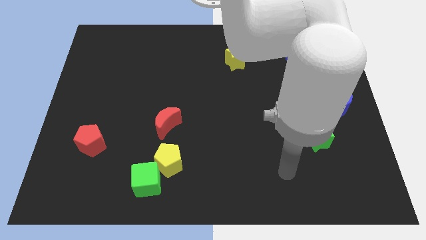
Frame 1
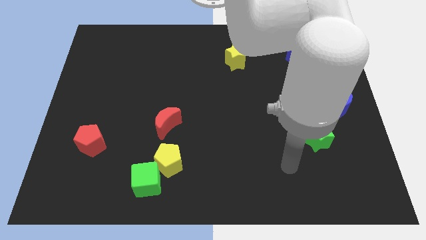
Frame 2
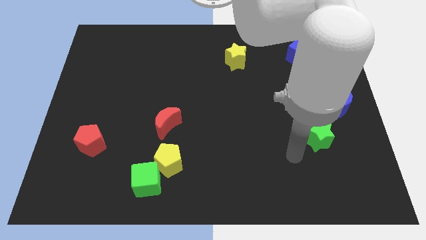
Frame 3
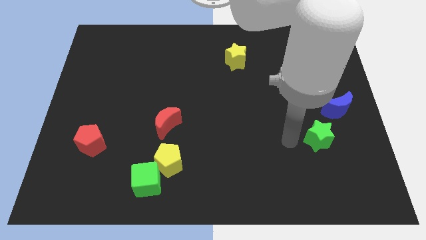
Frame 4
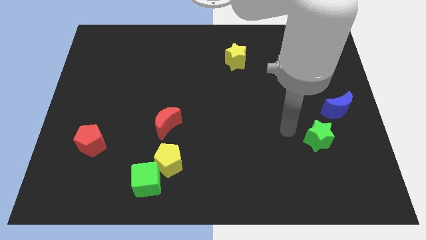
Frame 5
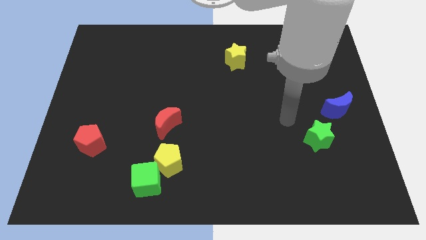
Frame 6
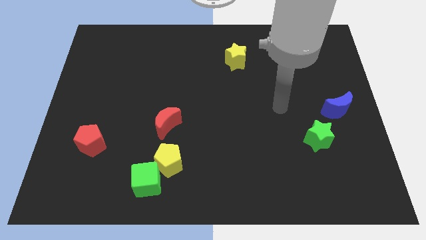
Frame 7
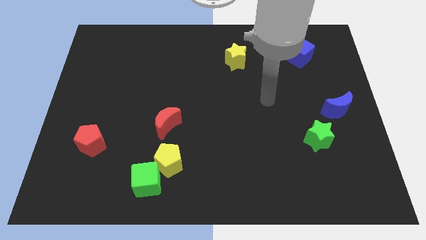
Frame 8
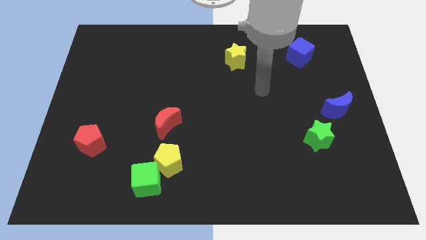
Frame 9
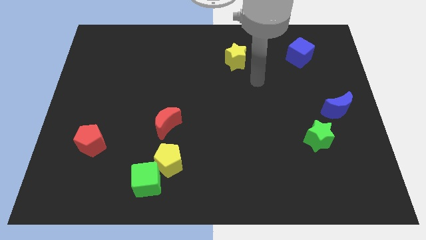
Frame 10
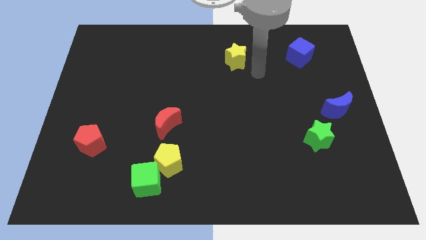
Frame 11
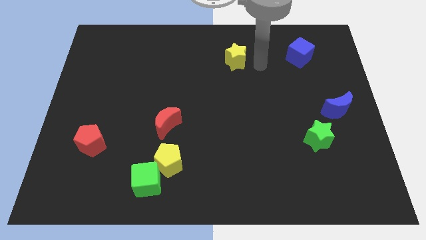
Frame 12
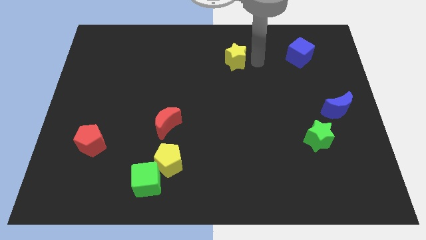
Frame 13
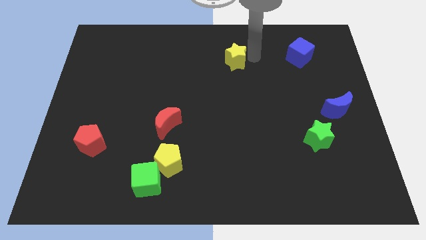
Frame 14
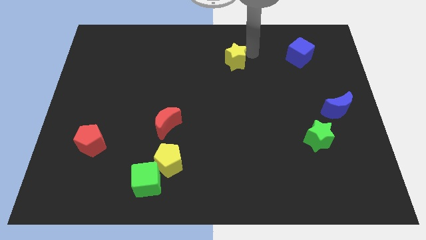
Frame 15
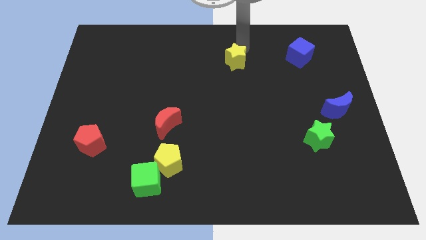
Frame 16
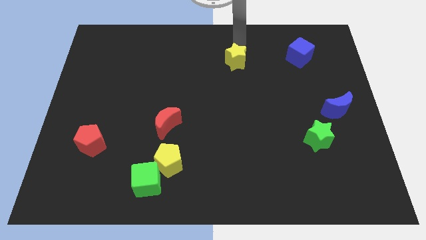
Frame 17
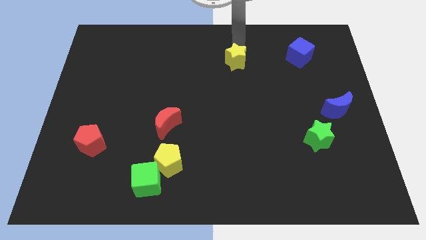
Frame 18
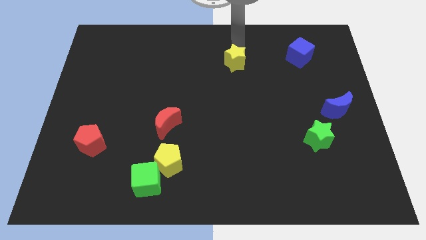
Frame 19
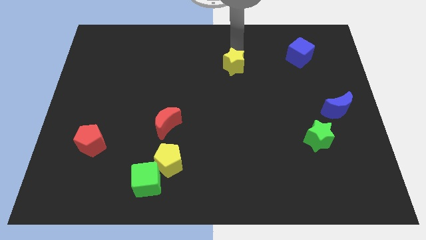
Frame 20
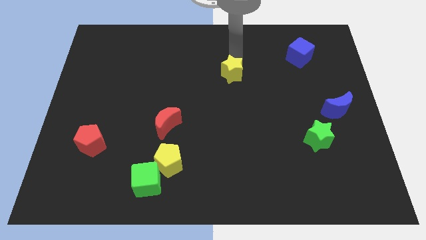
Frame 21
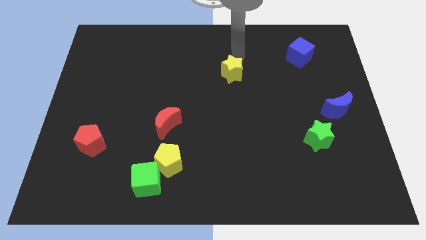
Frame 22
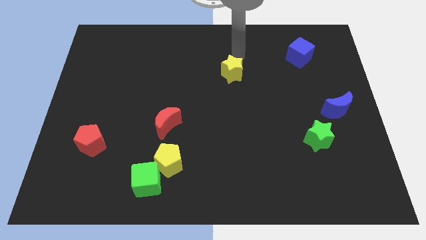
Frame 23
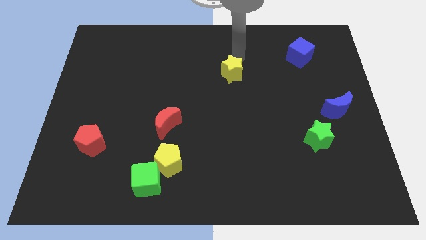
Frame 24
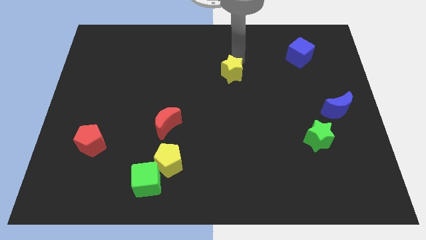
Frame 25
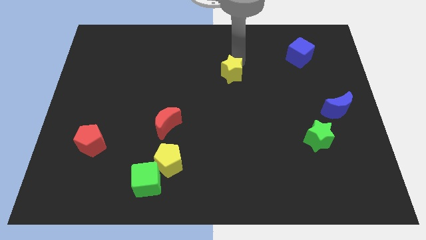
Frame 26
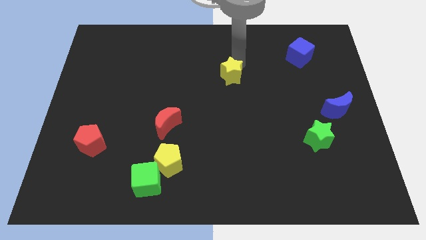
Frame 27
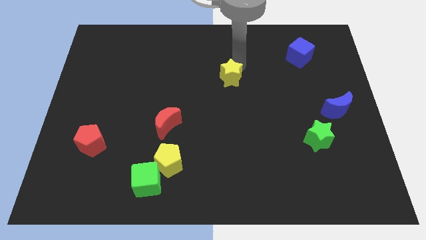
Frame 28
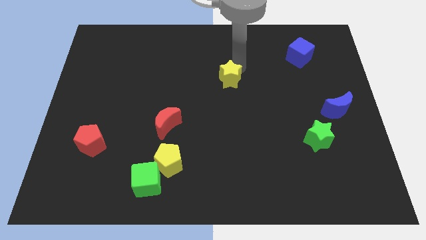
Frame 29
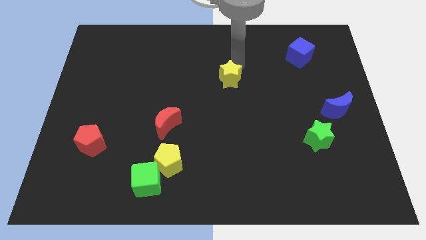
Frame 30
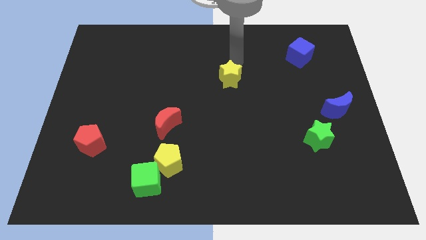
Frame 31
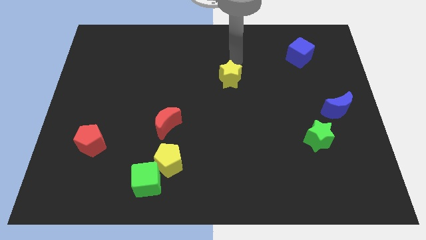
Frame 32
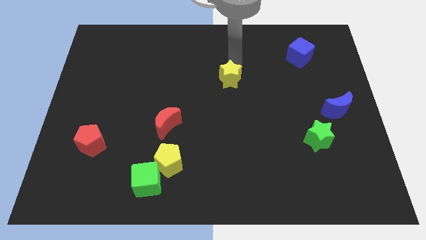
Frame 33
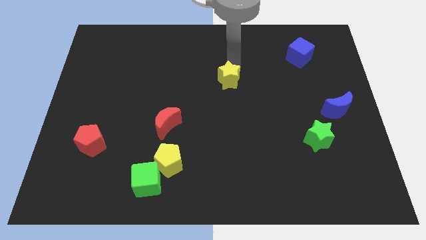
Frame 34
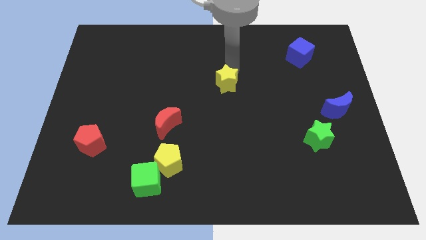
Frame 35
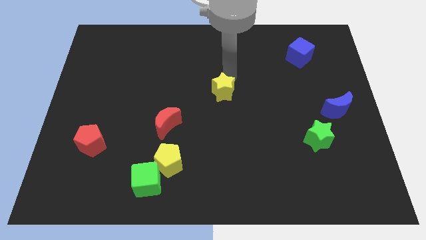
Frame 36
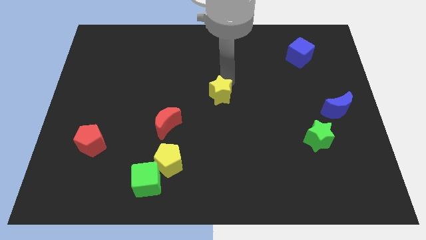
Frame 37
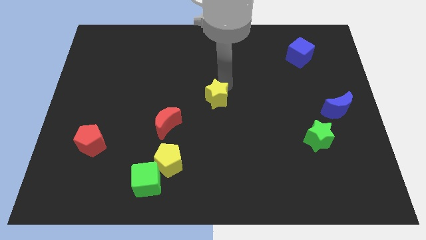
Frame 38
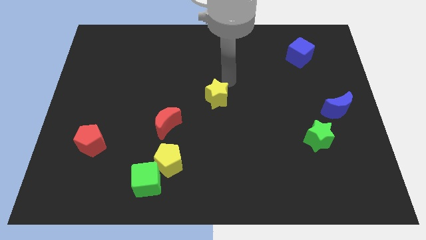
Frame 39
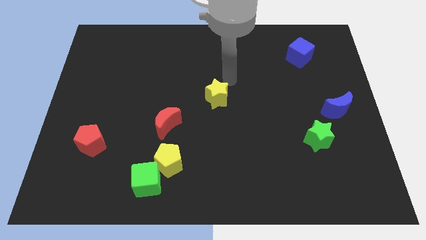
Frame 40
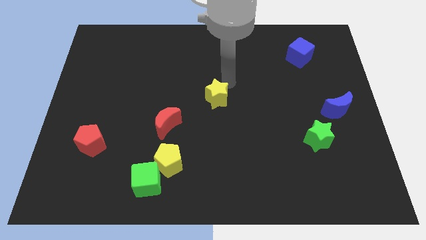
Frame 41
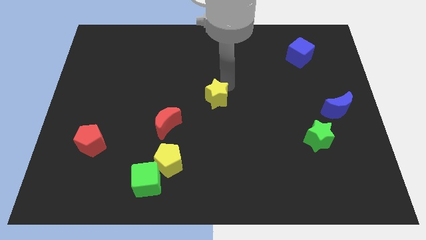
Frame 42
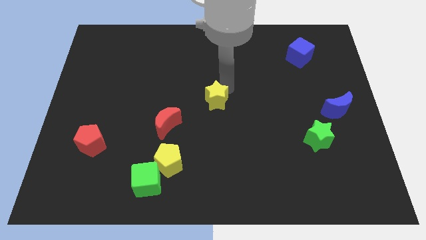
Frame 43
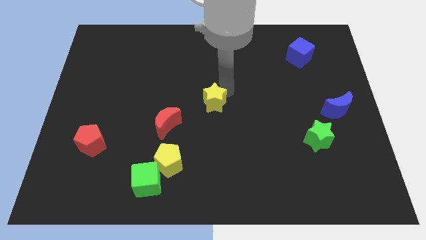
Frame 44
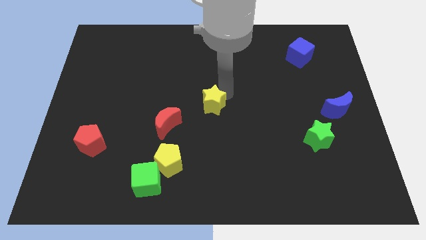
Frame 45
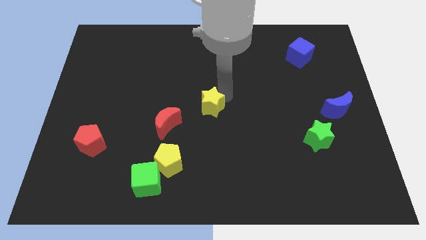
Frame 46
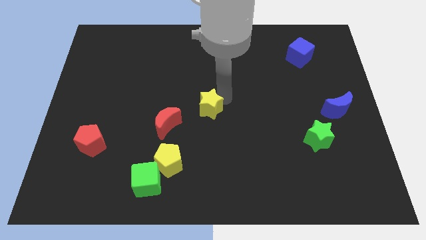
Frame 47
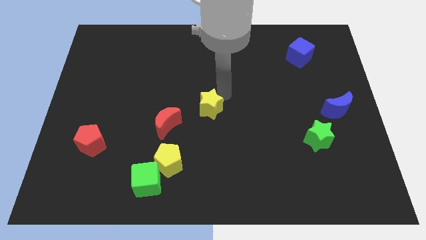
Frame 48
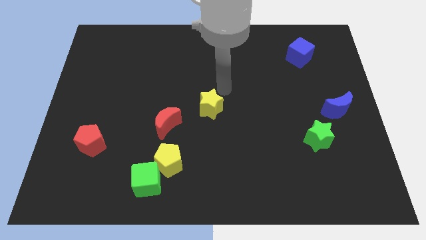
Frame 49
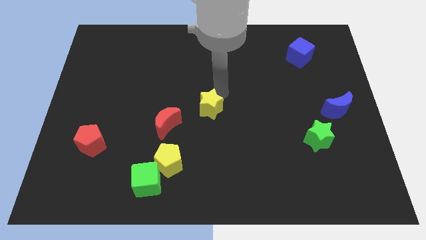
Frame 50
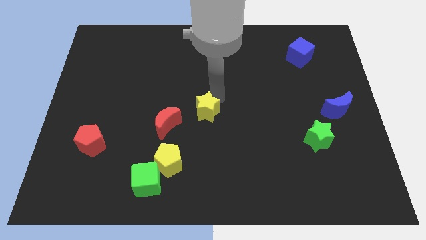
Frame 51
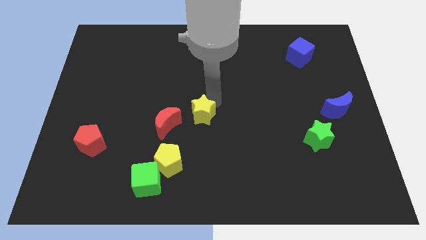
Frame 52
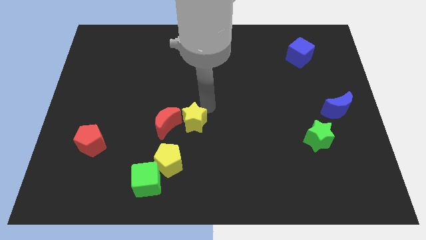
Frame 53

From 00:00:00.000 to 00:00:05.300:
move the yellow star to the bottom right of the red moon

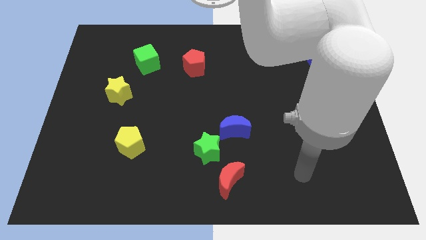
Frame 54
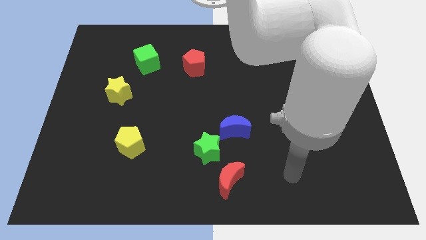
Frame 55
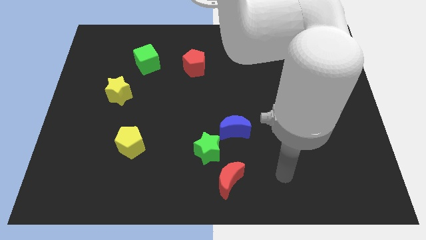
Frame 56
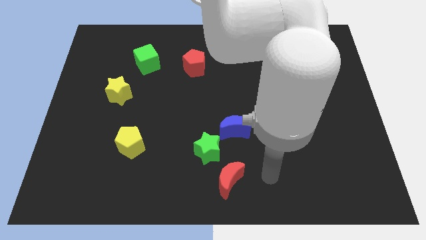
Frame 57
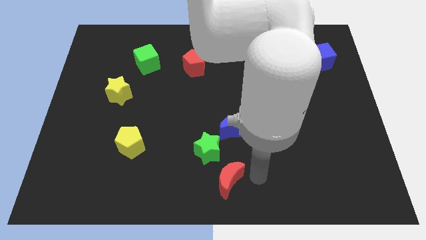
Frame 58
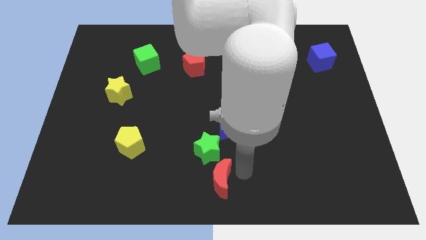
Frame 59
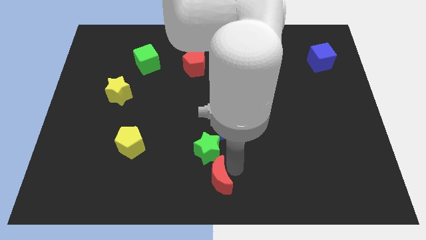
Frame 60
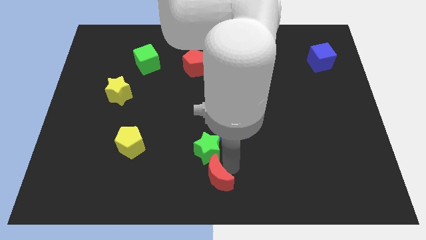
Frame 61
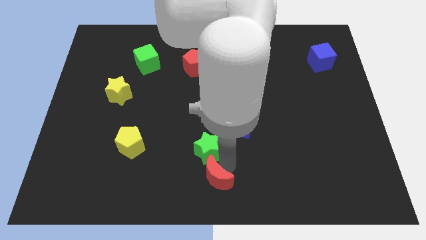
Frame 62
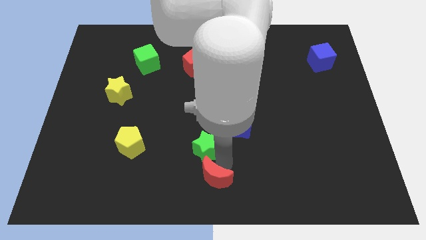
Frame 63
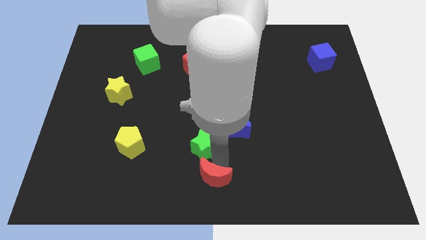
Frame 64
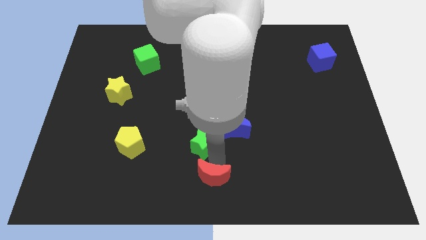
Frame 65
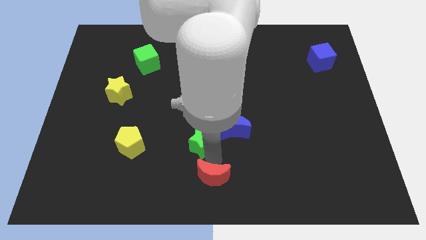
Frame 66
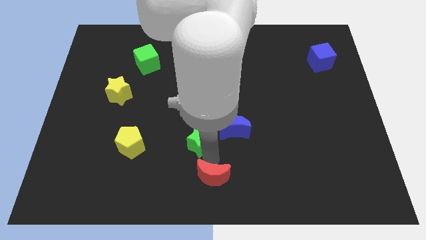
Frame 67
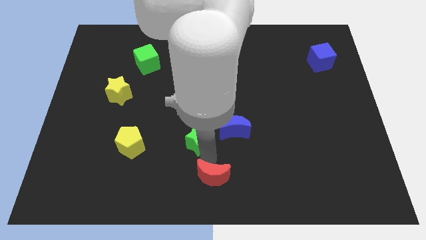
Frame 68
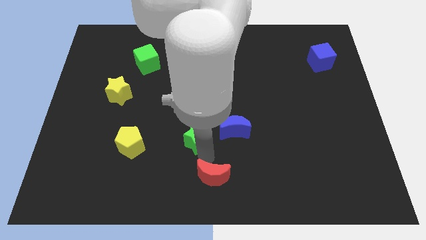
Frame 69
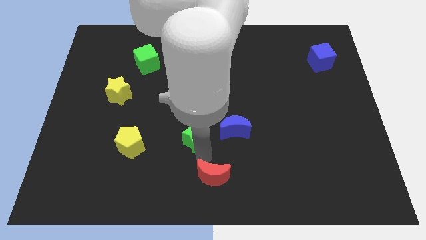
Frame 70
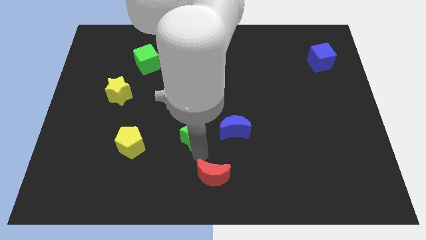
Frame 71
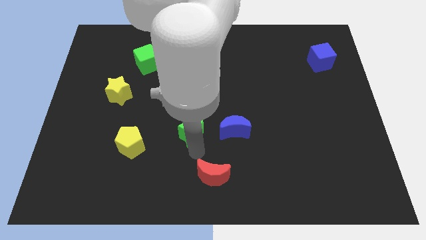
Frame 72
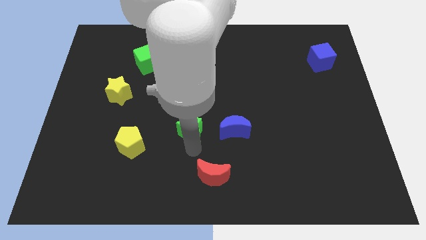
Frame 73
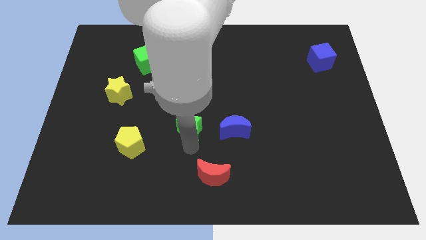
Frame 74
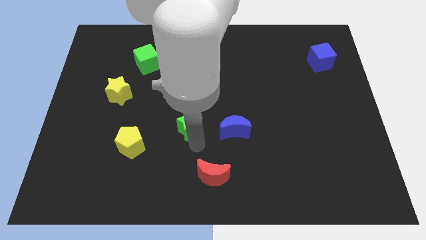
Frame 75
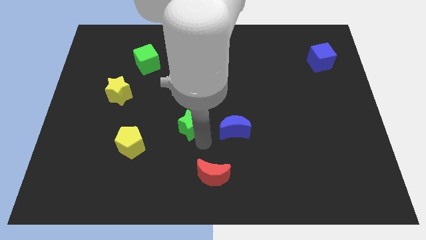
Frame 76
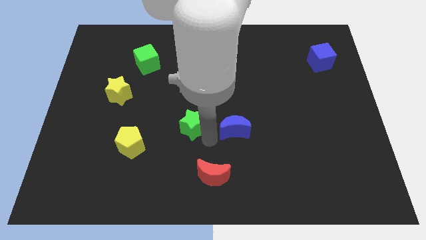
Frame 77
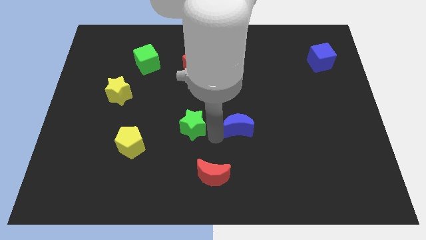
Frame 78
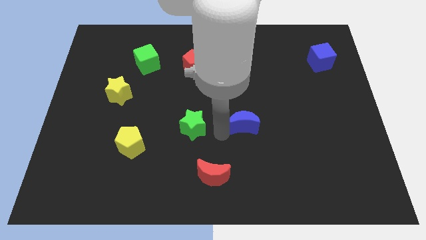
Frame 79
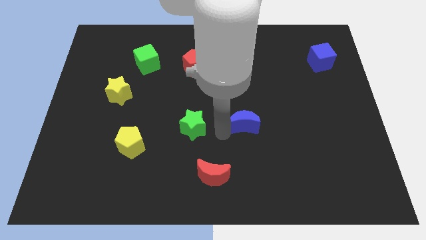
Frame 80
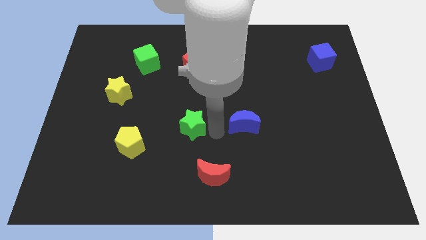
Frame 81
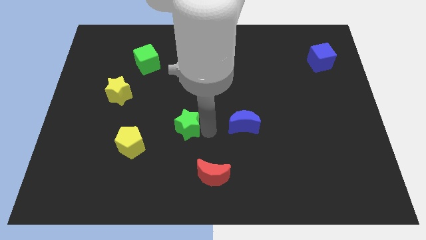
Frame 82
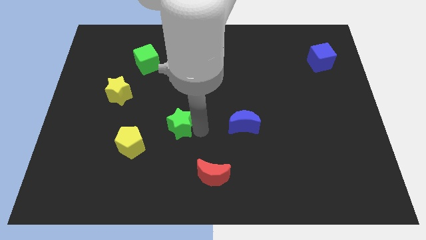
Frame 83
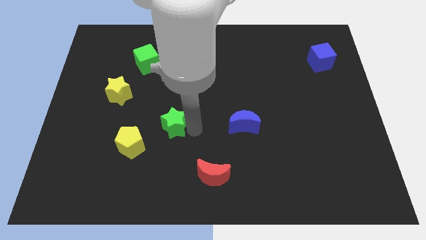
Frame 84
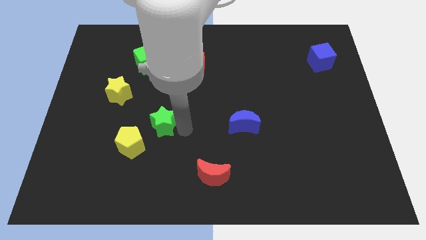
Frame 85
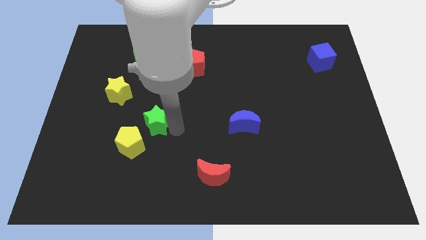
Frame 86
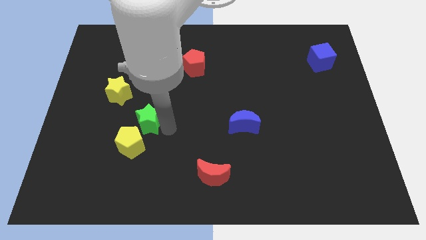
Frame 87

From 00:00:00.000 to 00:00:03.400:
put the green star to the bottom right of the yellow star
